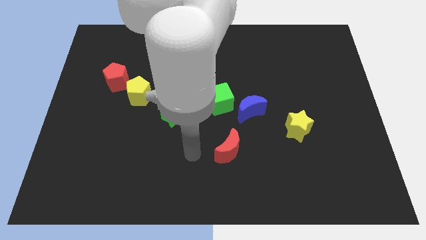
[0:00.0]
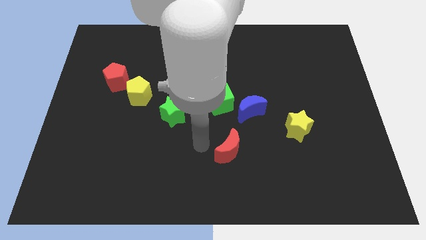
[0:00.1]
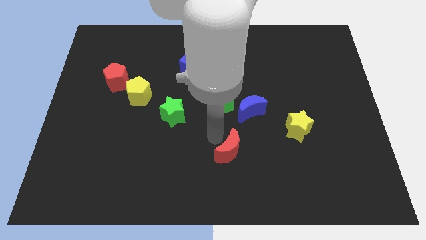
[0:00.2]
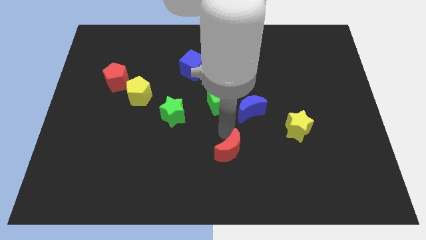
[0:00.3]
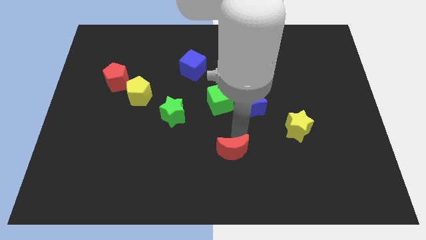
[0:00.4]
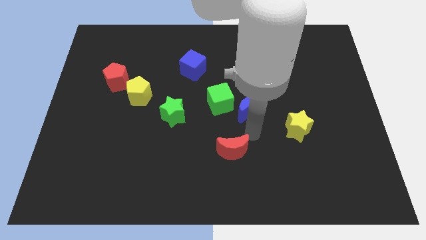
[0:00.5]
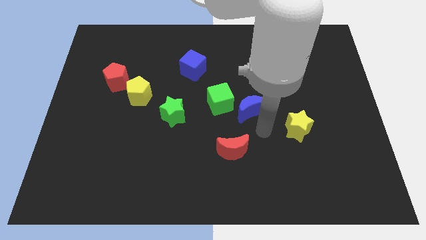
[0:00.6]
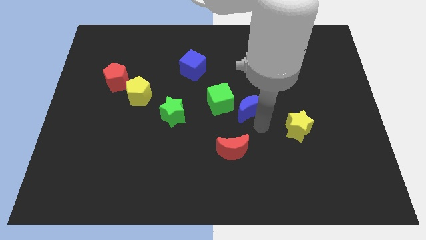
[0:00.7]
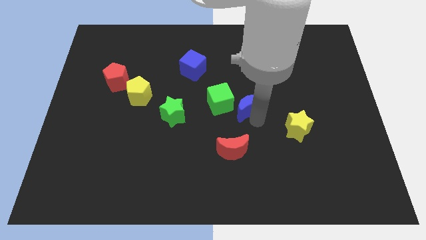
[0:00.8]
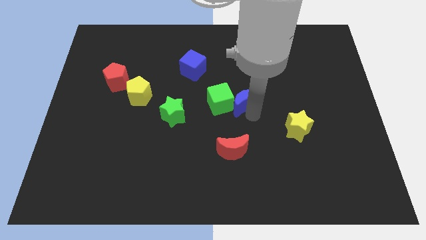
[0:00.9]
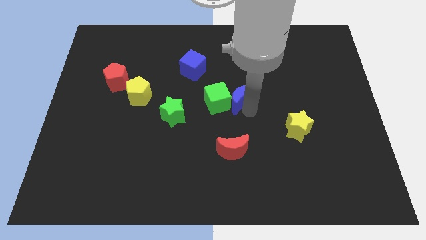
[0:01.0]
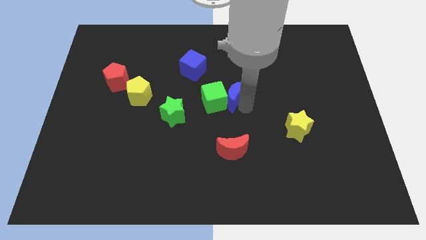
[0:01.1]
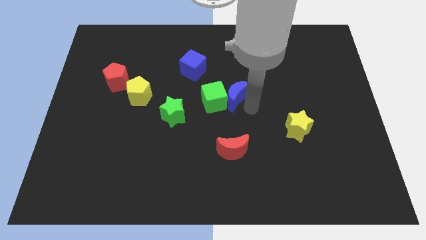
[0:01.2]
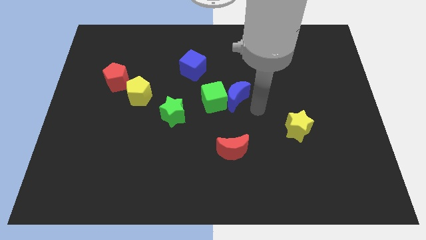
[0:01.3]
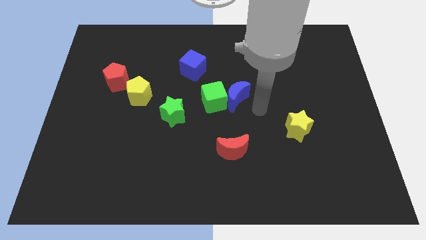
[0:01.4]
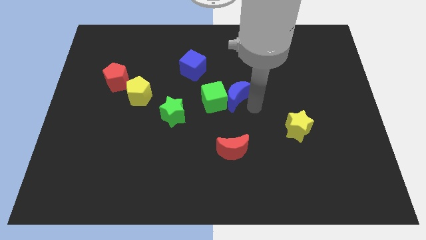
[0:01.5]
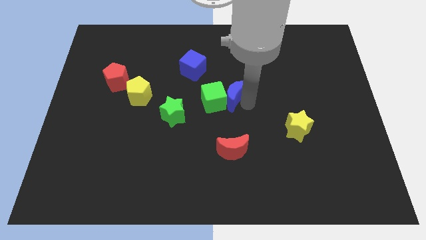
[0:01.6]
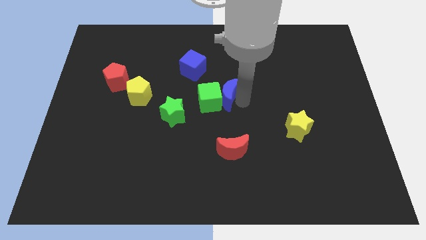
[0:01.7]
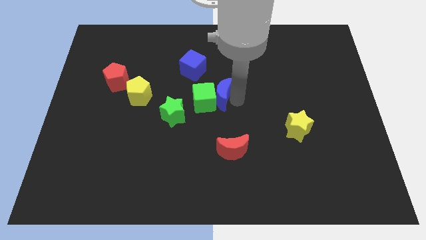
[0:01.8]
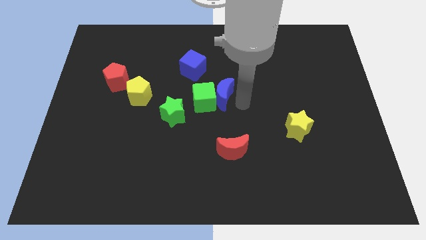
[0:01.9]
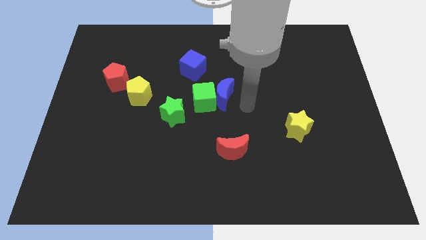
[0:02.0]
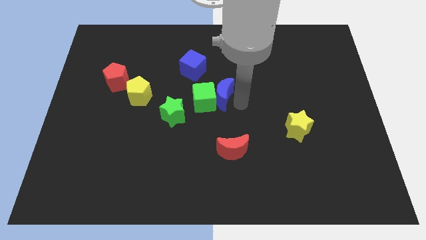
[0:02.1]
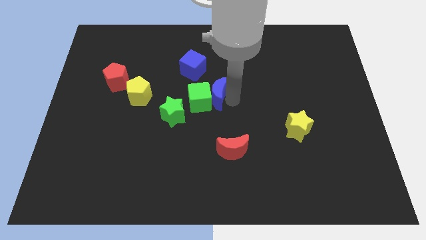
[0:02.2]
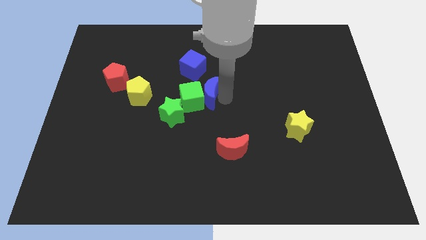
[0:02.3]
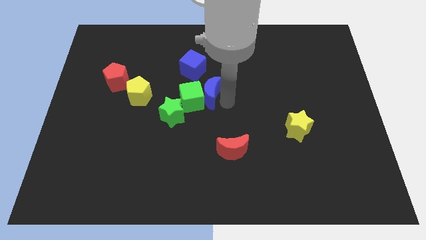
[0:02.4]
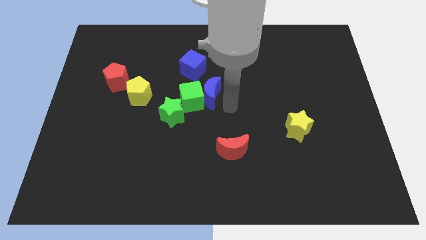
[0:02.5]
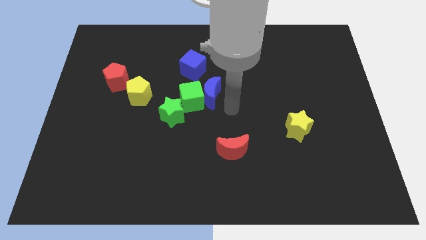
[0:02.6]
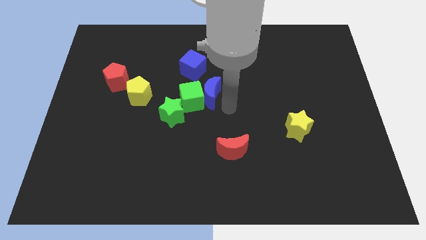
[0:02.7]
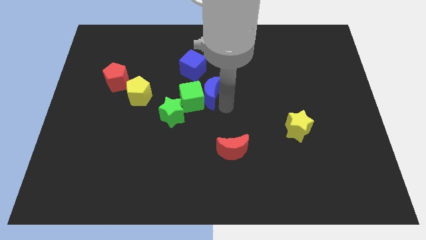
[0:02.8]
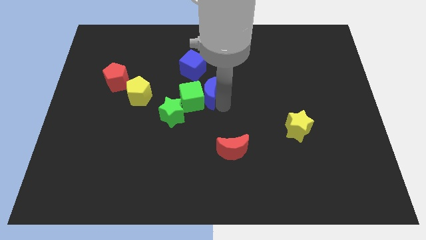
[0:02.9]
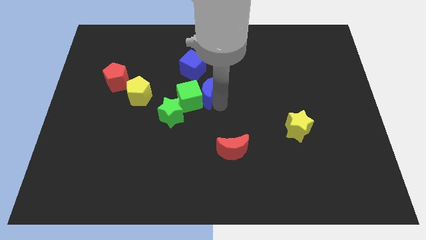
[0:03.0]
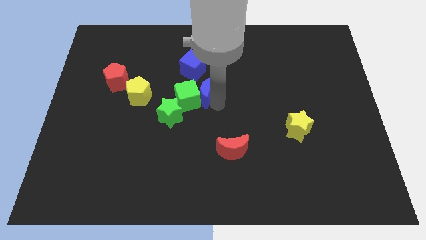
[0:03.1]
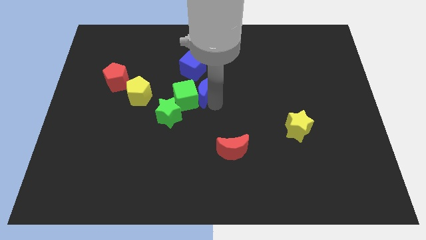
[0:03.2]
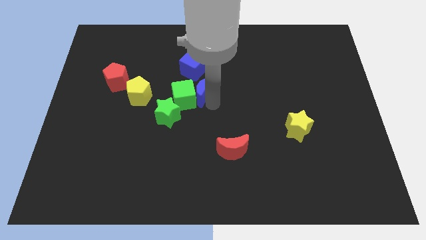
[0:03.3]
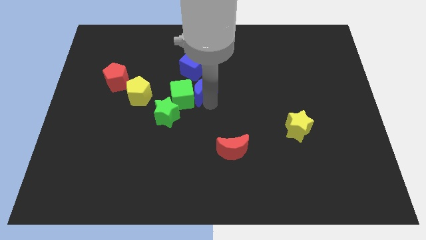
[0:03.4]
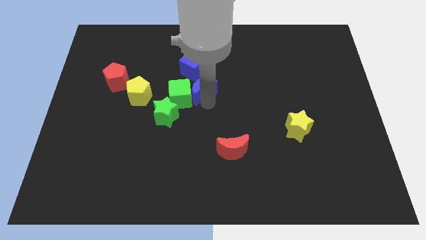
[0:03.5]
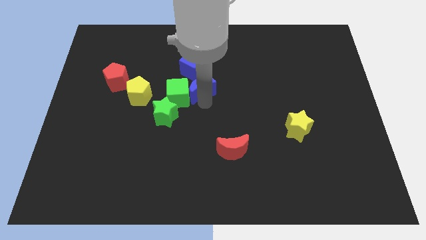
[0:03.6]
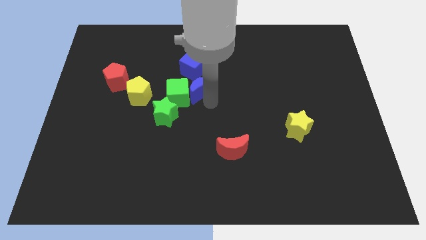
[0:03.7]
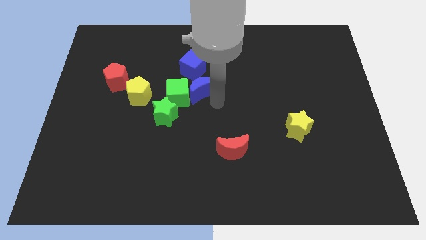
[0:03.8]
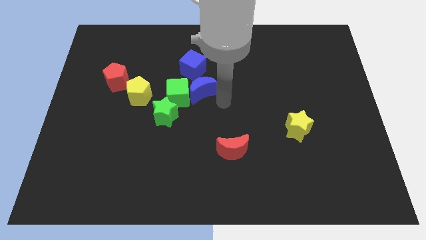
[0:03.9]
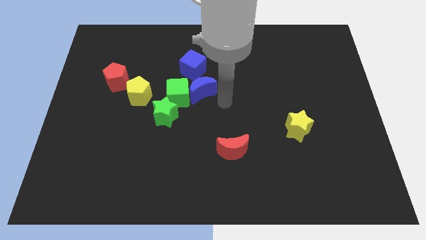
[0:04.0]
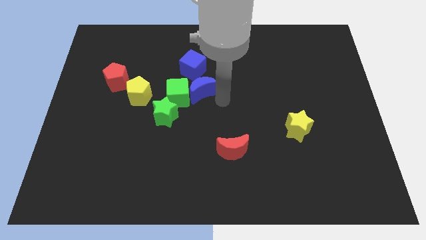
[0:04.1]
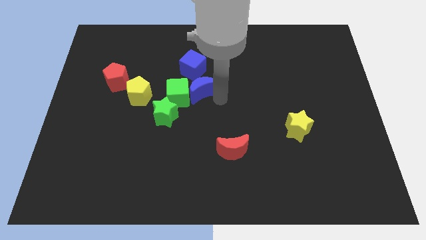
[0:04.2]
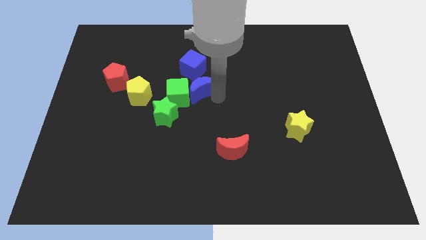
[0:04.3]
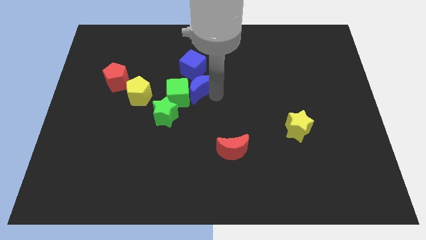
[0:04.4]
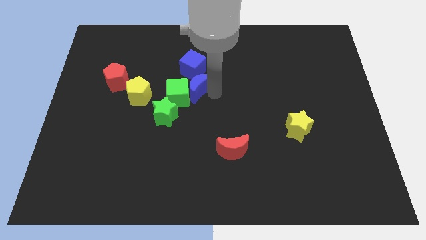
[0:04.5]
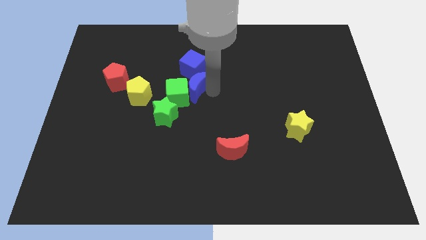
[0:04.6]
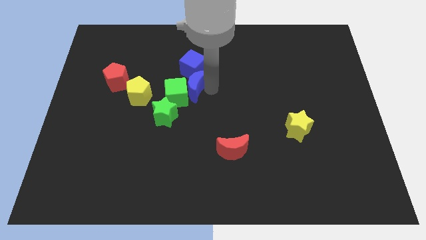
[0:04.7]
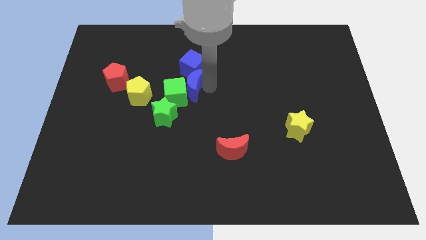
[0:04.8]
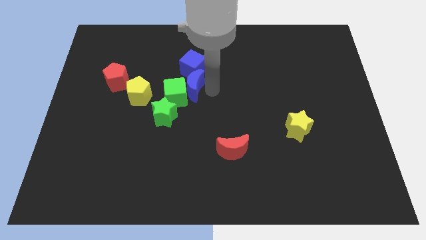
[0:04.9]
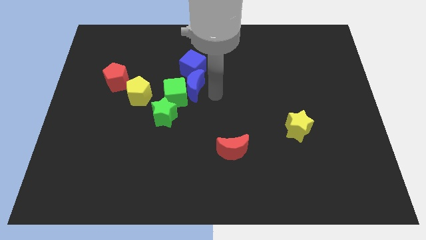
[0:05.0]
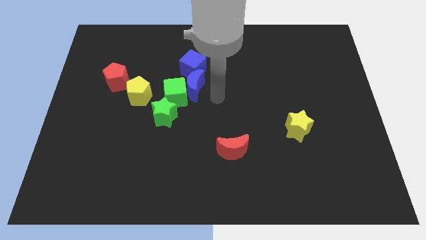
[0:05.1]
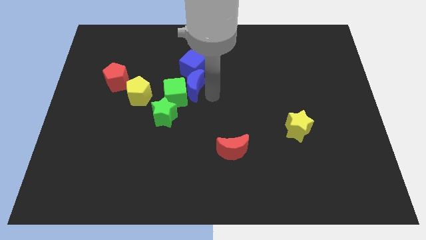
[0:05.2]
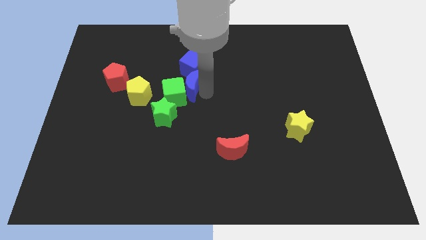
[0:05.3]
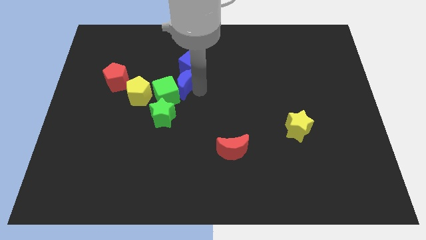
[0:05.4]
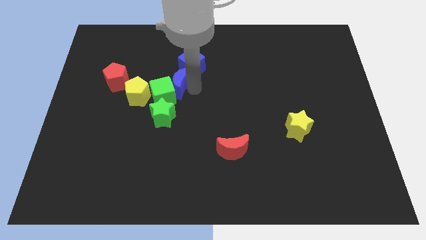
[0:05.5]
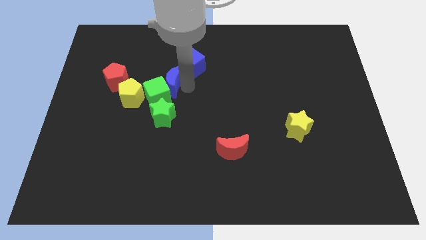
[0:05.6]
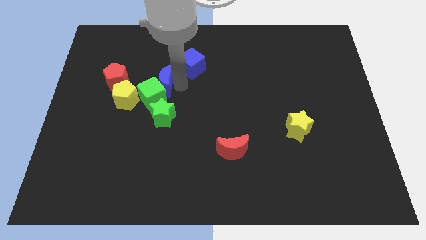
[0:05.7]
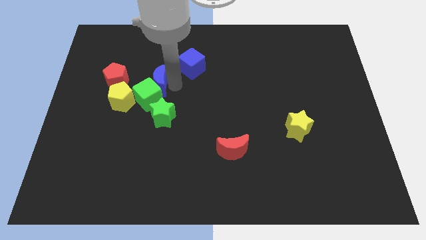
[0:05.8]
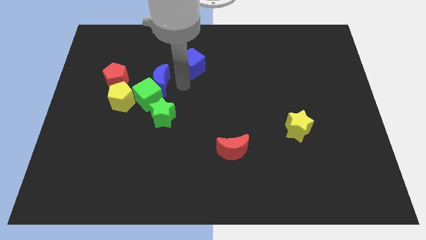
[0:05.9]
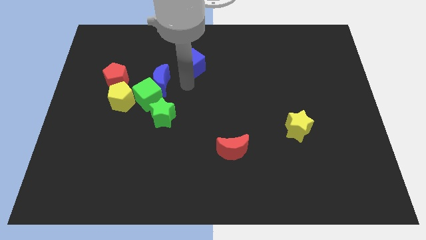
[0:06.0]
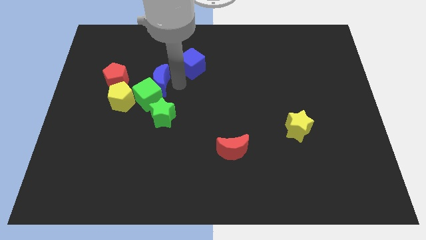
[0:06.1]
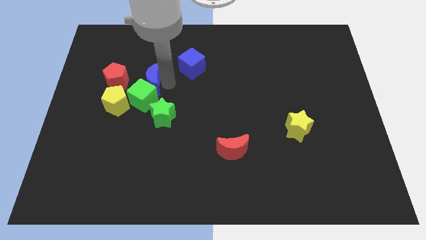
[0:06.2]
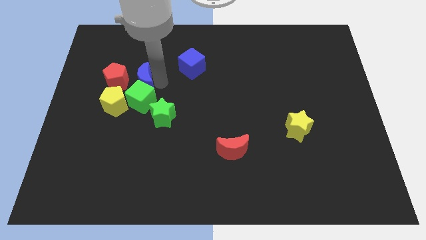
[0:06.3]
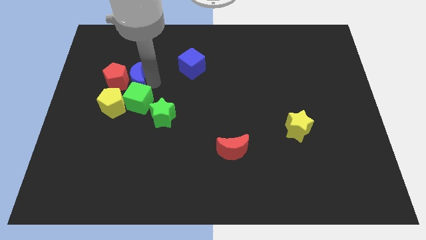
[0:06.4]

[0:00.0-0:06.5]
move the blue moon towards the red pentagon

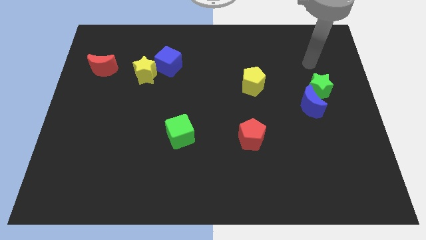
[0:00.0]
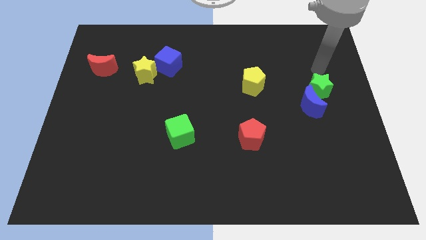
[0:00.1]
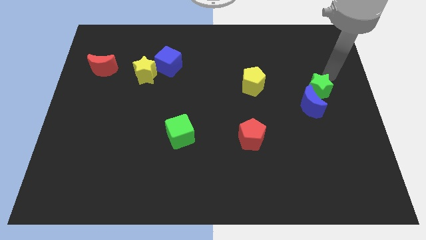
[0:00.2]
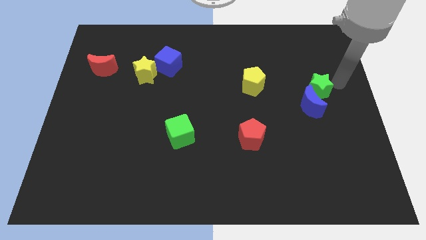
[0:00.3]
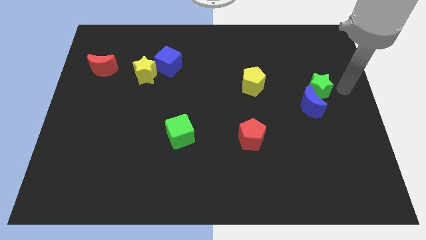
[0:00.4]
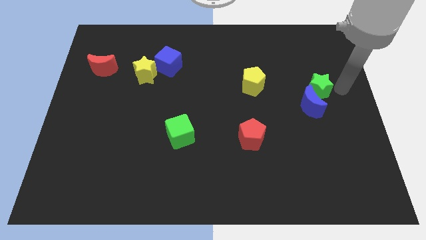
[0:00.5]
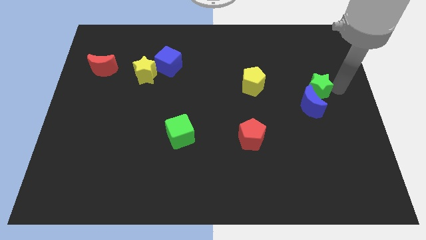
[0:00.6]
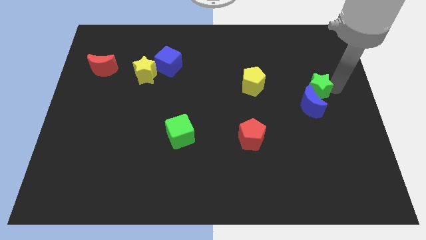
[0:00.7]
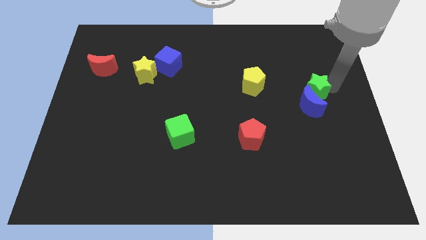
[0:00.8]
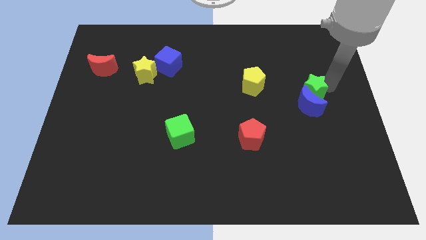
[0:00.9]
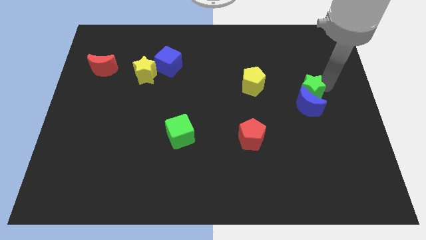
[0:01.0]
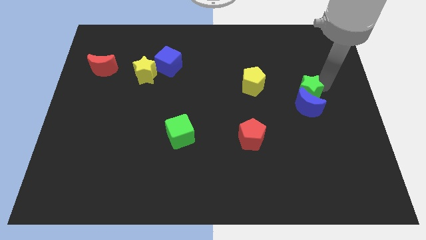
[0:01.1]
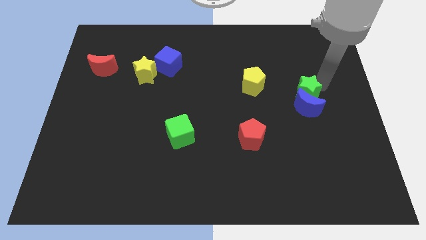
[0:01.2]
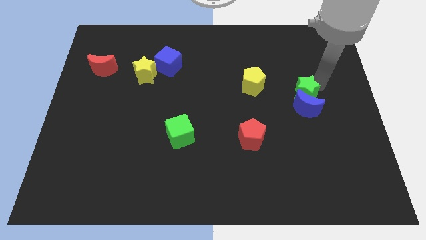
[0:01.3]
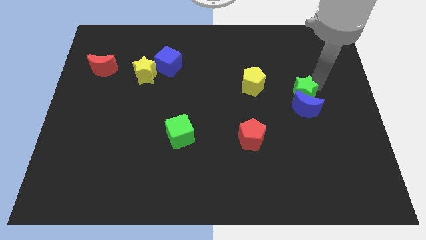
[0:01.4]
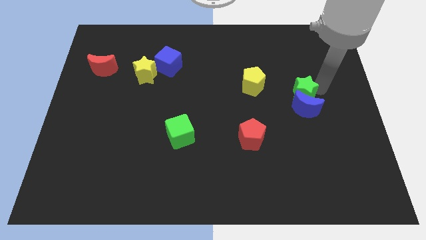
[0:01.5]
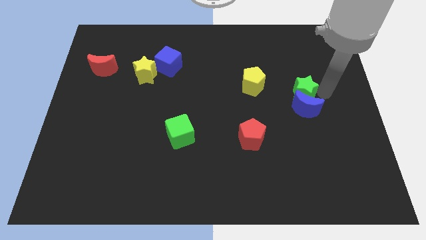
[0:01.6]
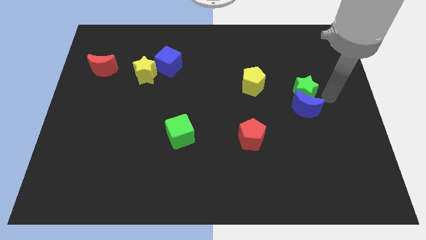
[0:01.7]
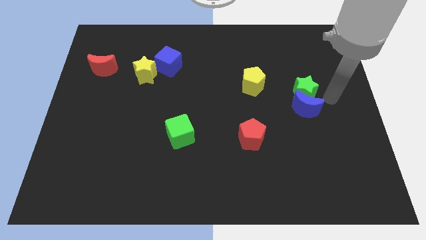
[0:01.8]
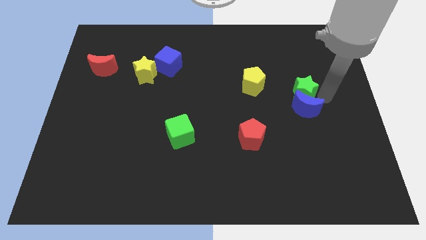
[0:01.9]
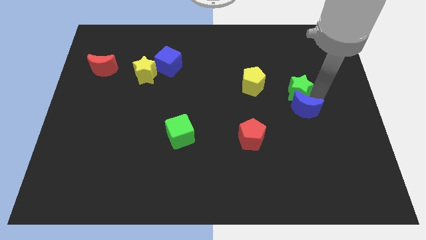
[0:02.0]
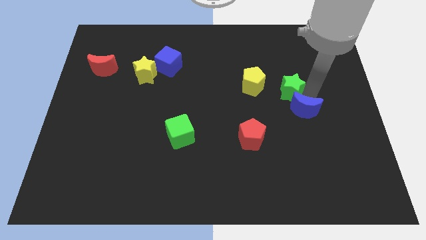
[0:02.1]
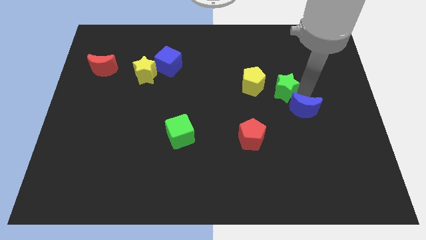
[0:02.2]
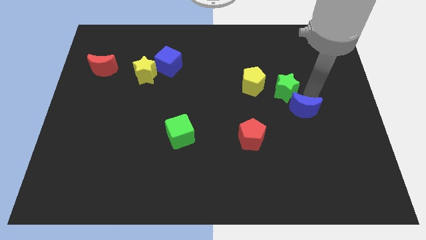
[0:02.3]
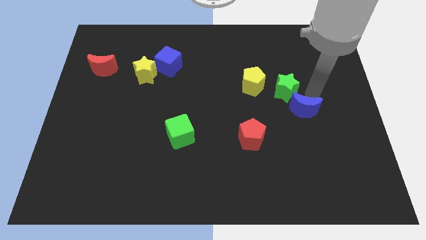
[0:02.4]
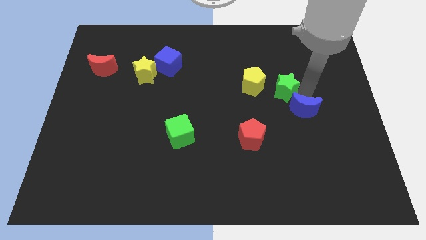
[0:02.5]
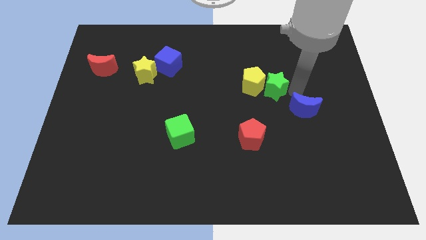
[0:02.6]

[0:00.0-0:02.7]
slide the green star towards the yellow pentagon
